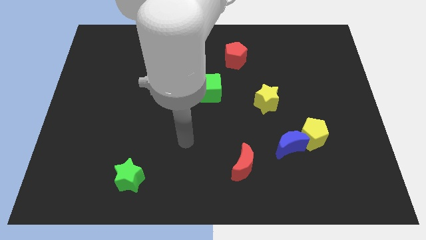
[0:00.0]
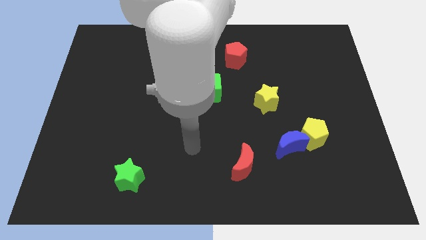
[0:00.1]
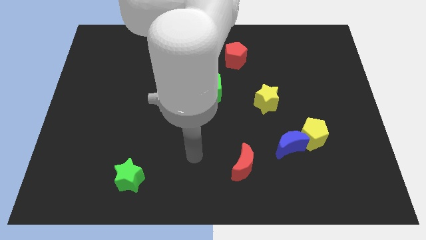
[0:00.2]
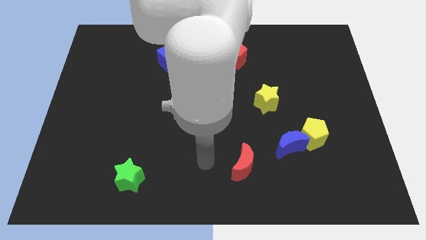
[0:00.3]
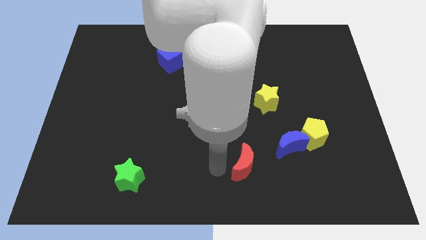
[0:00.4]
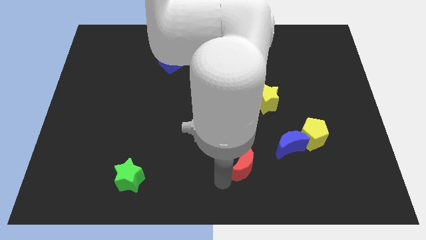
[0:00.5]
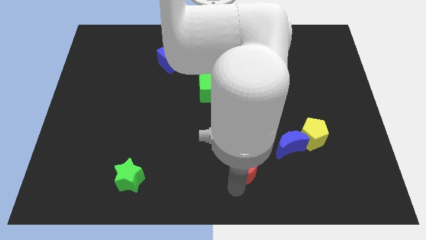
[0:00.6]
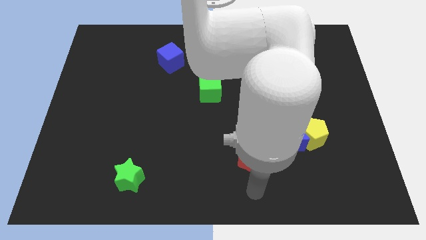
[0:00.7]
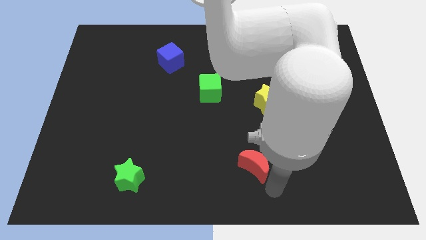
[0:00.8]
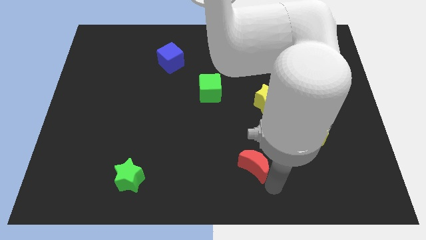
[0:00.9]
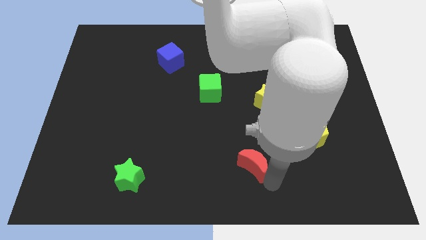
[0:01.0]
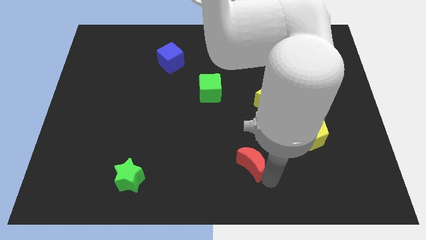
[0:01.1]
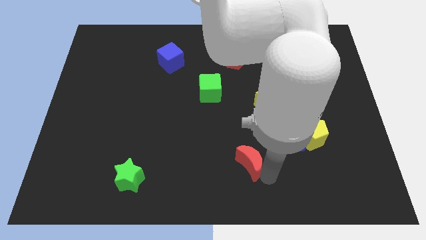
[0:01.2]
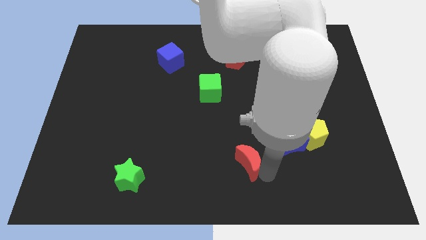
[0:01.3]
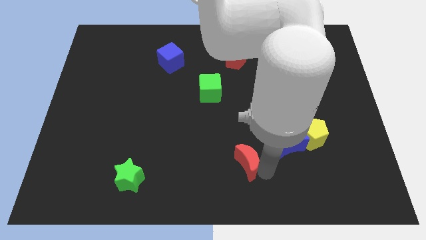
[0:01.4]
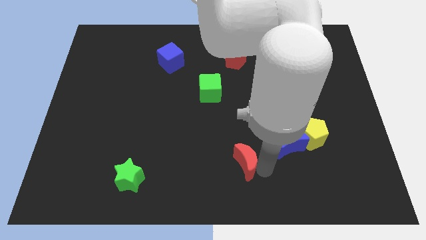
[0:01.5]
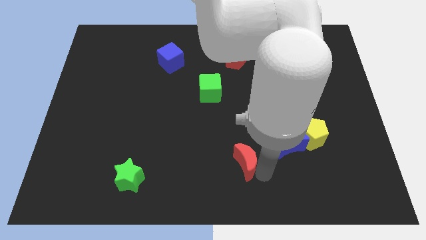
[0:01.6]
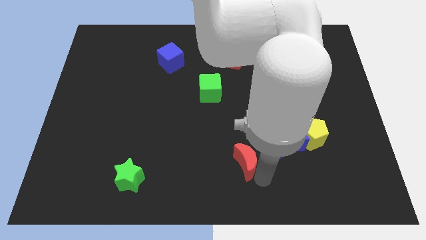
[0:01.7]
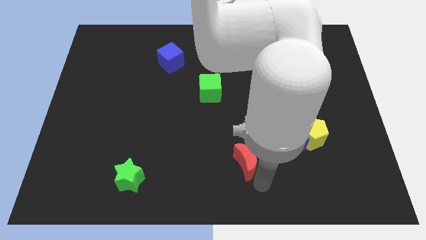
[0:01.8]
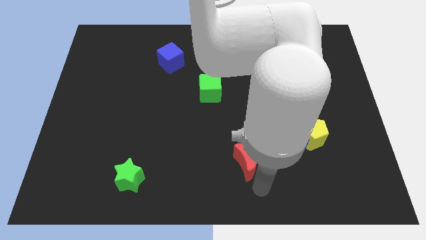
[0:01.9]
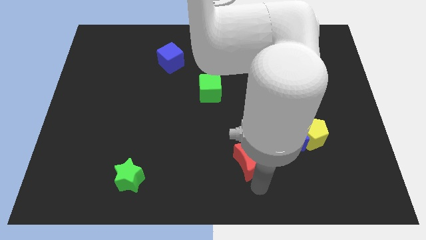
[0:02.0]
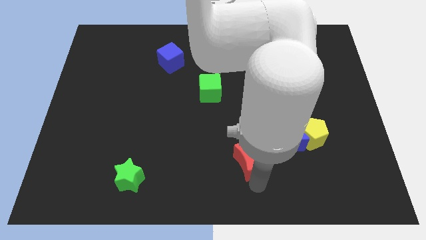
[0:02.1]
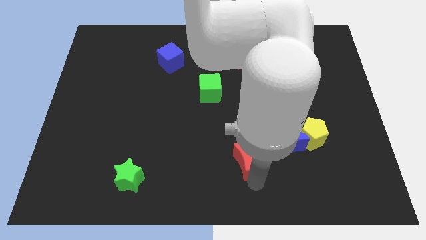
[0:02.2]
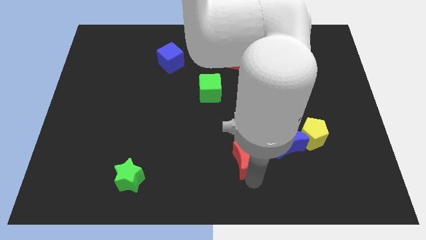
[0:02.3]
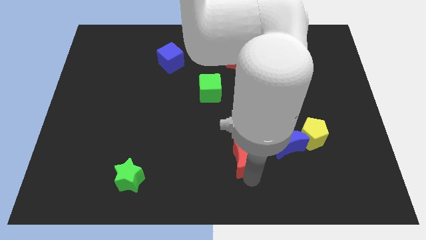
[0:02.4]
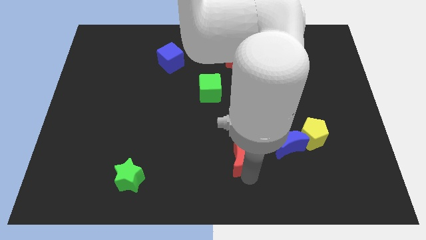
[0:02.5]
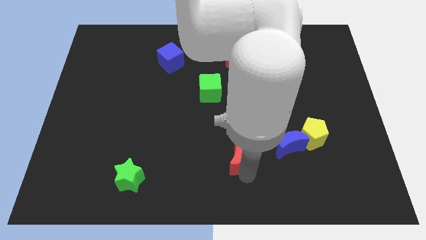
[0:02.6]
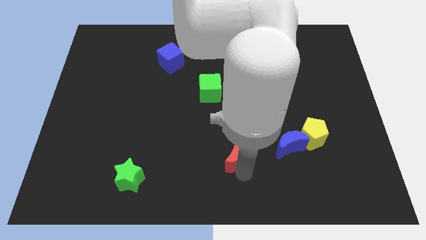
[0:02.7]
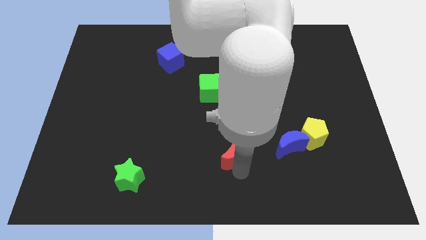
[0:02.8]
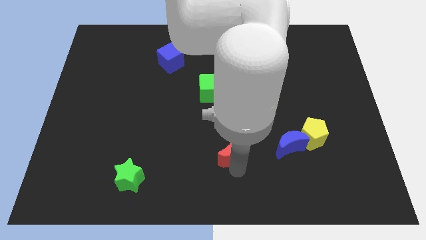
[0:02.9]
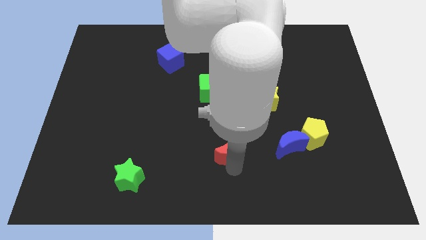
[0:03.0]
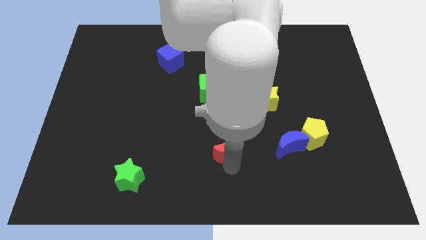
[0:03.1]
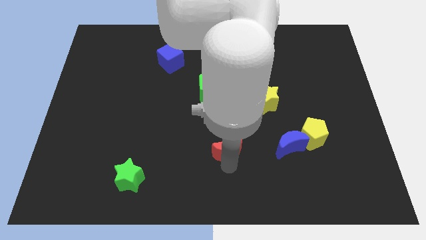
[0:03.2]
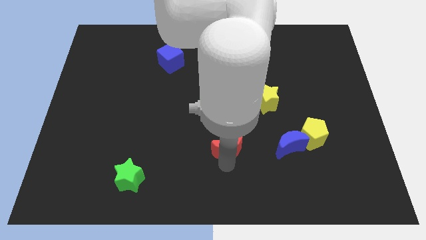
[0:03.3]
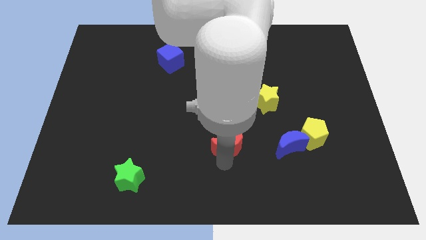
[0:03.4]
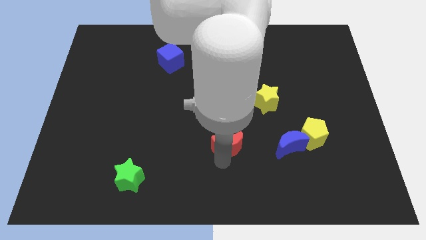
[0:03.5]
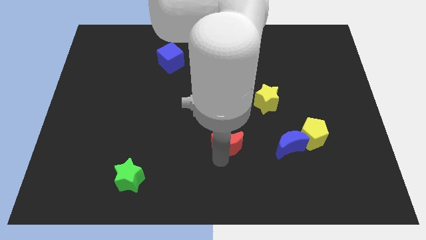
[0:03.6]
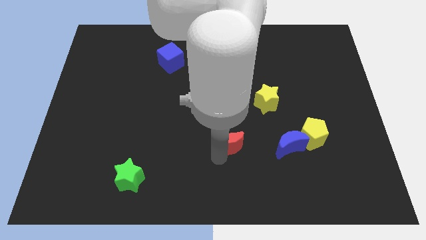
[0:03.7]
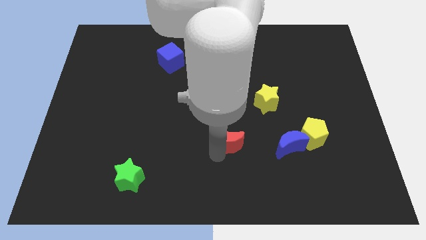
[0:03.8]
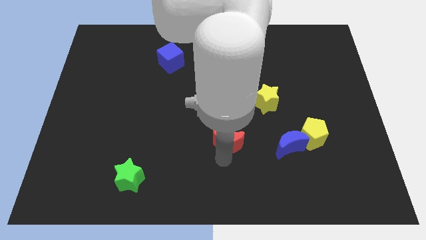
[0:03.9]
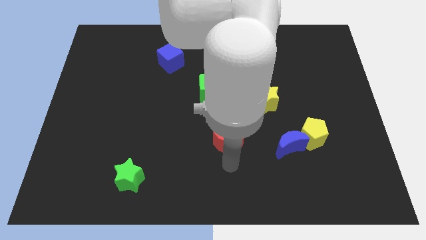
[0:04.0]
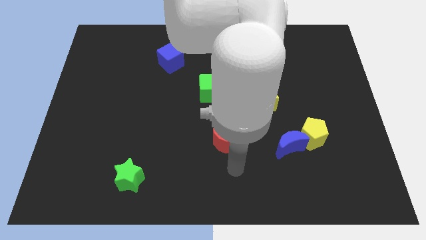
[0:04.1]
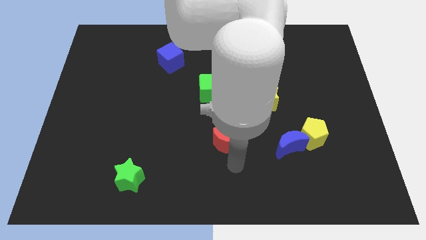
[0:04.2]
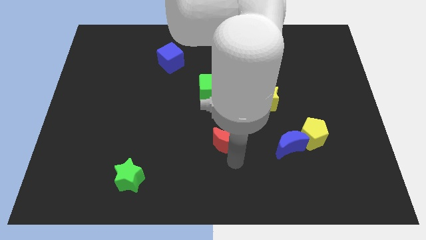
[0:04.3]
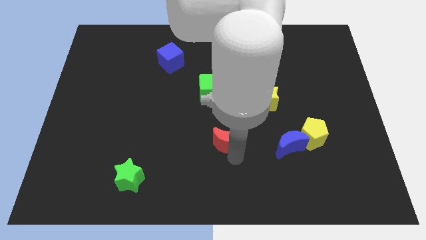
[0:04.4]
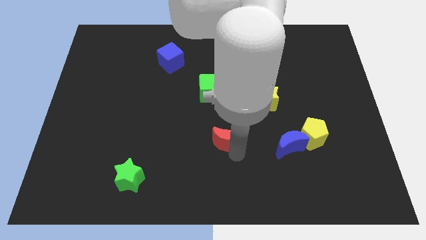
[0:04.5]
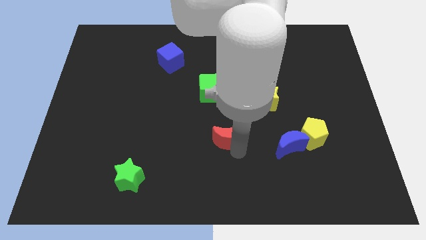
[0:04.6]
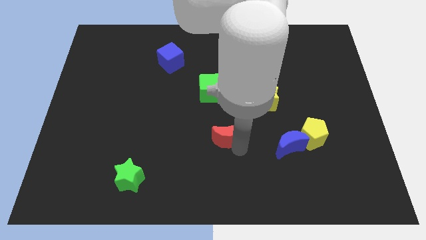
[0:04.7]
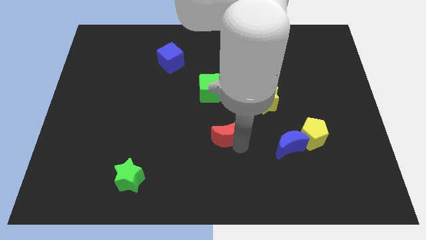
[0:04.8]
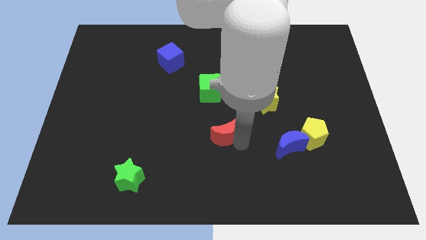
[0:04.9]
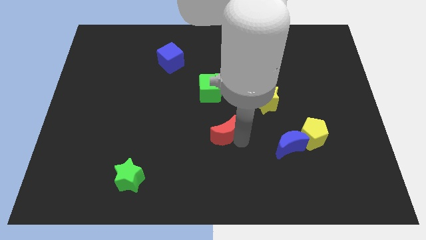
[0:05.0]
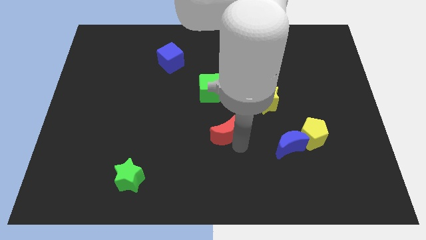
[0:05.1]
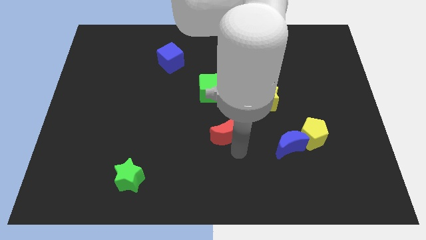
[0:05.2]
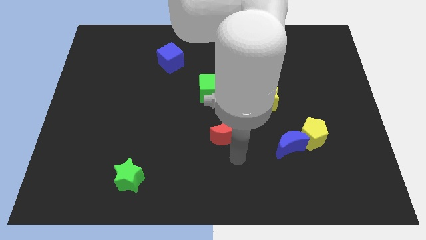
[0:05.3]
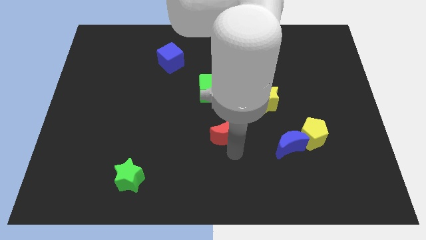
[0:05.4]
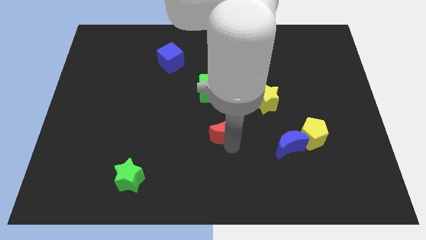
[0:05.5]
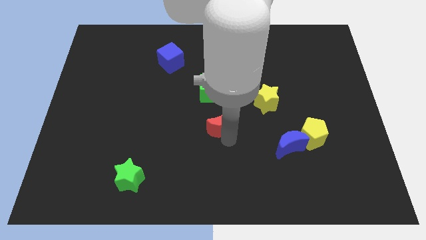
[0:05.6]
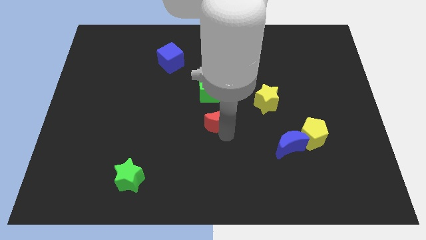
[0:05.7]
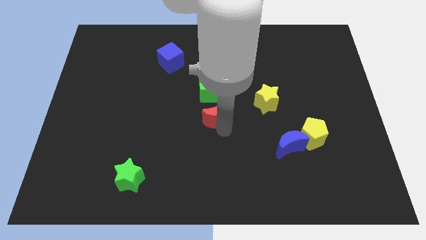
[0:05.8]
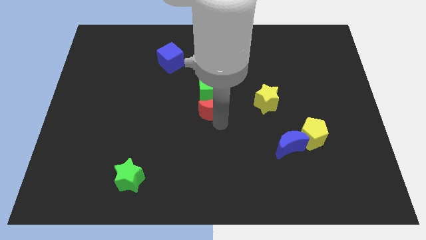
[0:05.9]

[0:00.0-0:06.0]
slide the red moon next to the green cube
